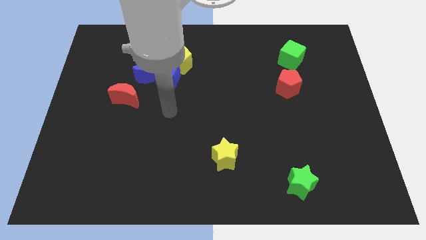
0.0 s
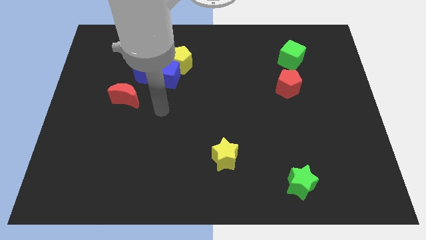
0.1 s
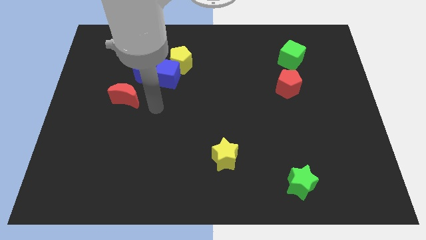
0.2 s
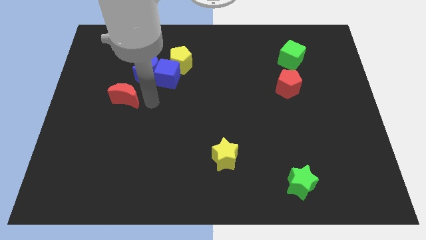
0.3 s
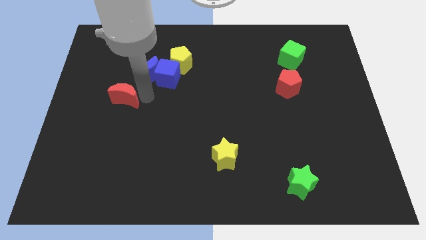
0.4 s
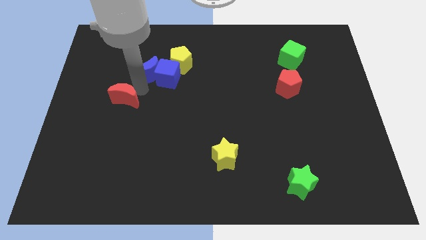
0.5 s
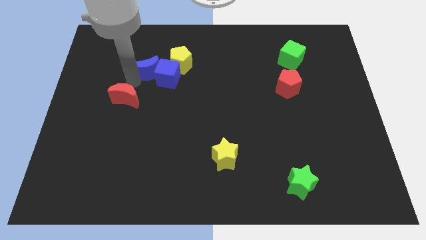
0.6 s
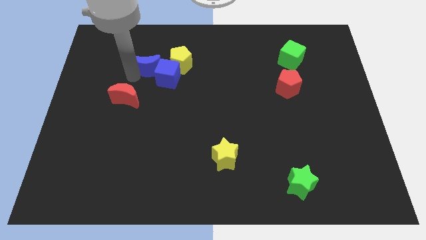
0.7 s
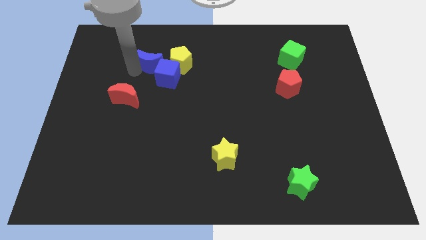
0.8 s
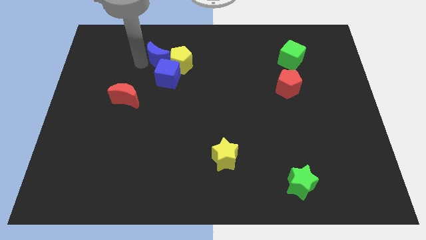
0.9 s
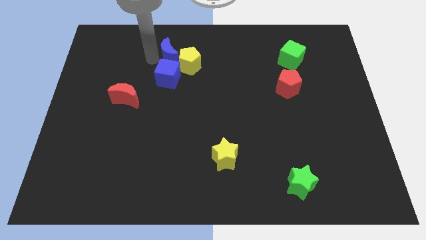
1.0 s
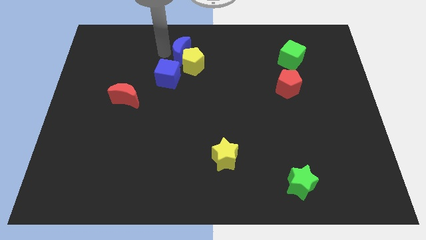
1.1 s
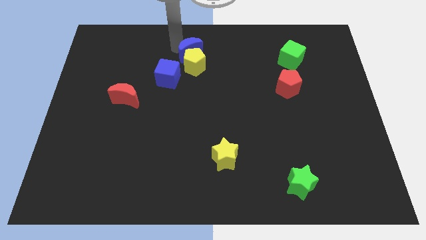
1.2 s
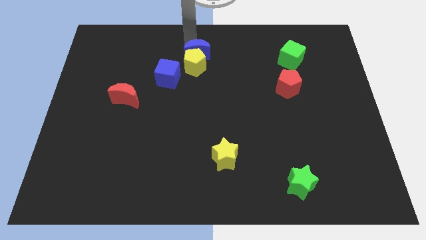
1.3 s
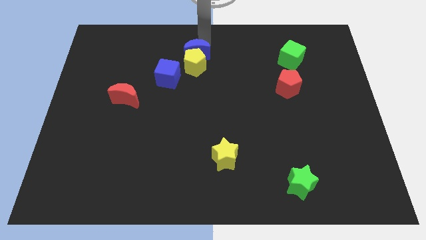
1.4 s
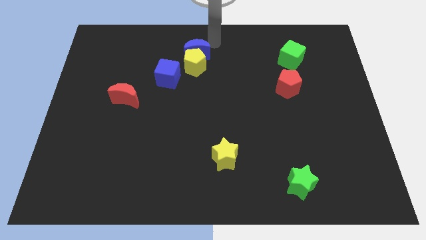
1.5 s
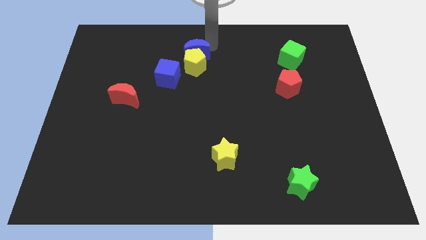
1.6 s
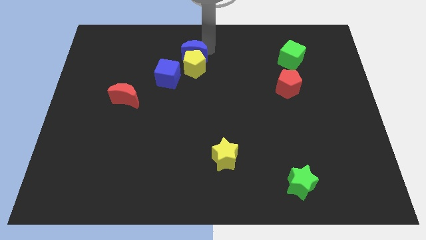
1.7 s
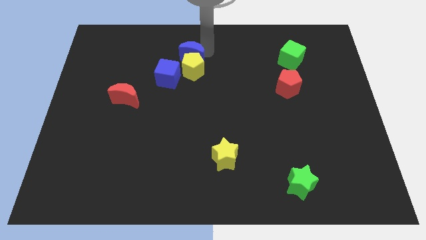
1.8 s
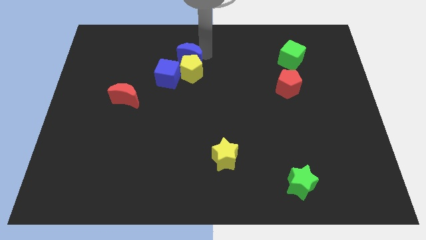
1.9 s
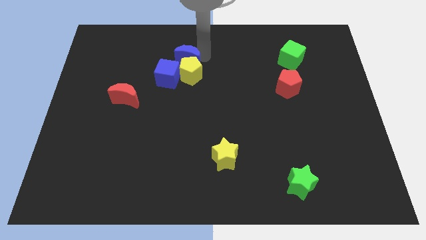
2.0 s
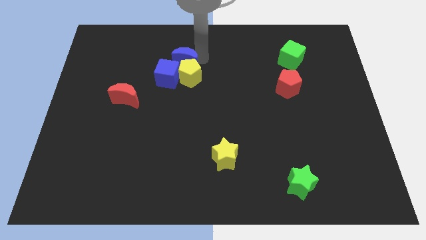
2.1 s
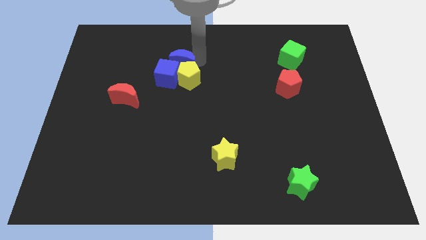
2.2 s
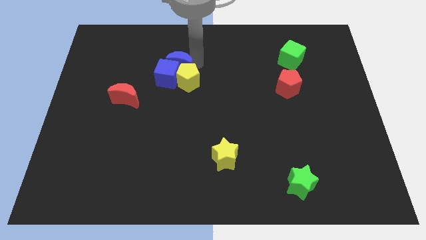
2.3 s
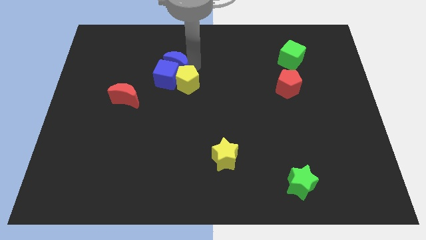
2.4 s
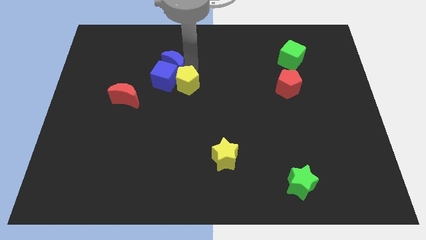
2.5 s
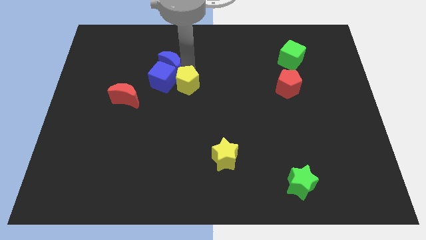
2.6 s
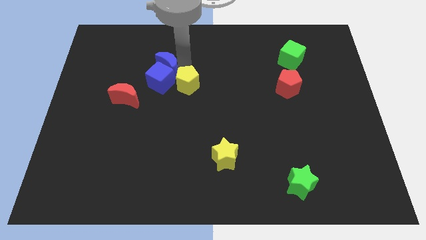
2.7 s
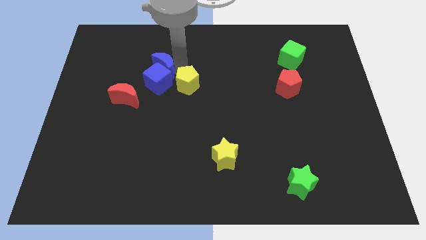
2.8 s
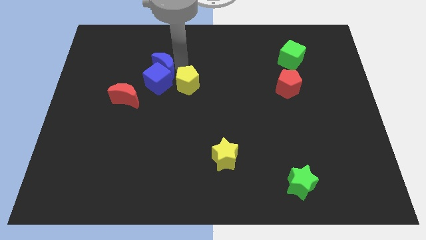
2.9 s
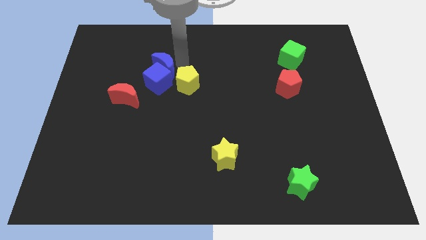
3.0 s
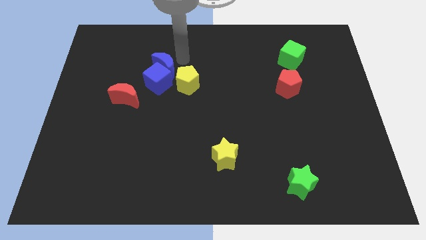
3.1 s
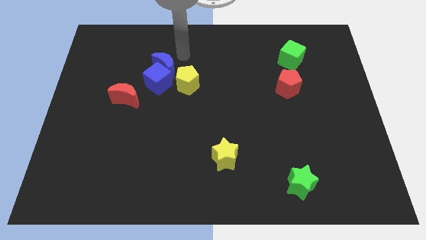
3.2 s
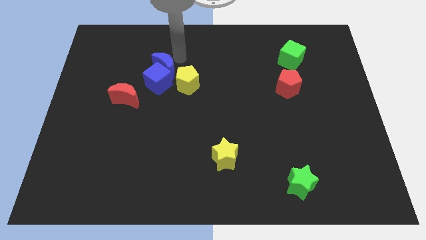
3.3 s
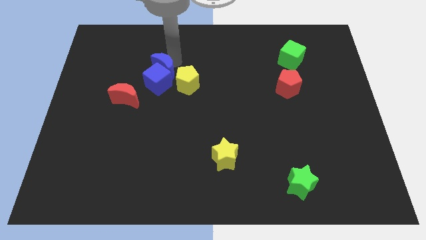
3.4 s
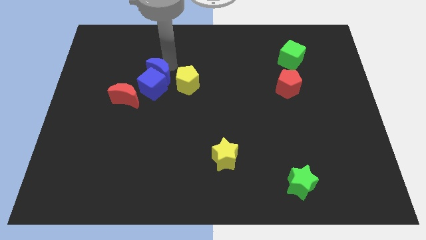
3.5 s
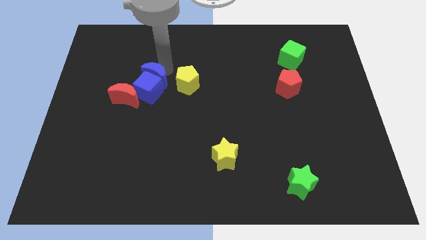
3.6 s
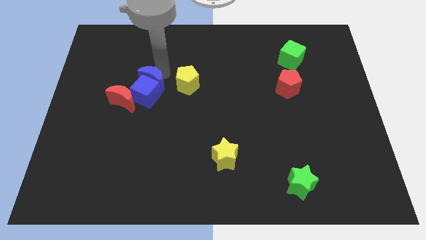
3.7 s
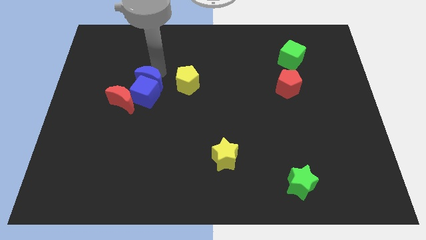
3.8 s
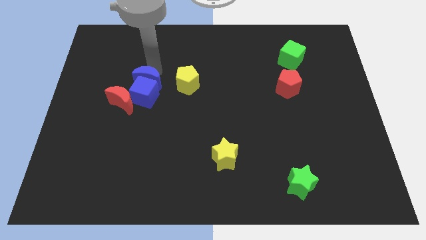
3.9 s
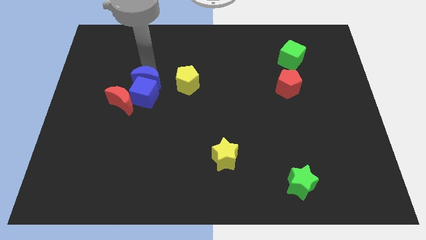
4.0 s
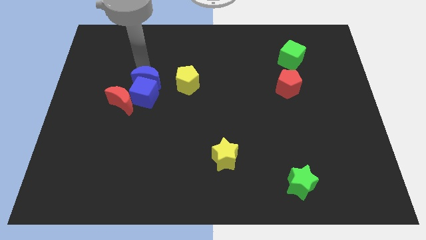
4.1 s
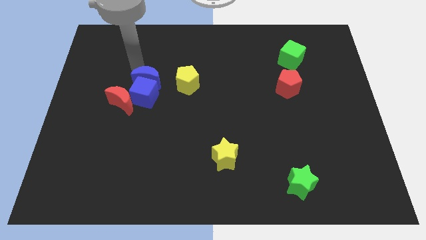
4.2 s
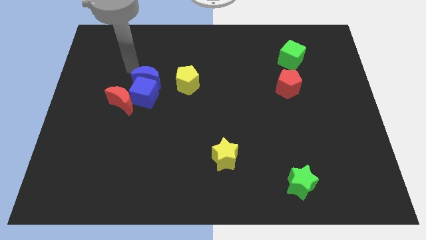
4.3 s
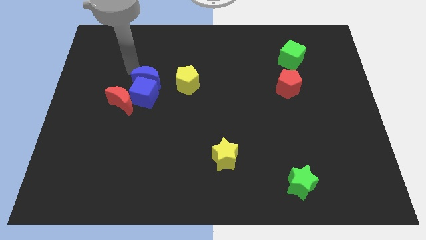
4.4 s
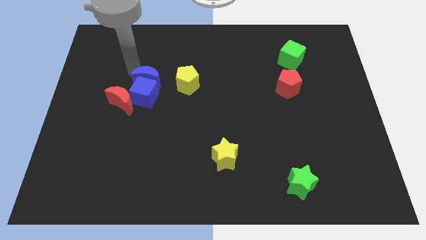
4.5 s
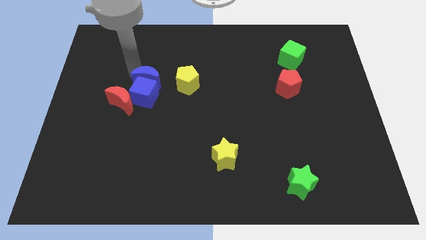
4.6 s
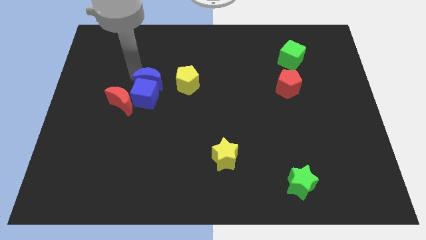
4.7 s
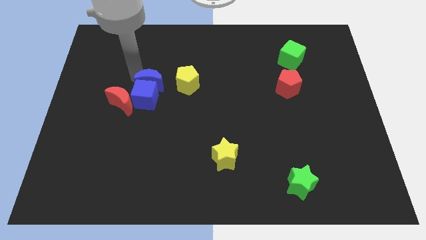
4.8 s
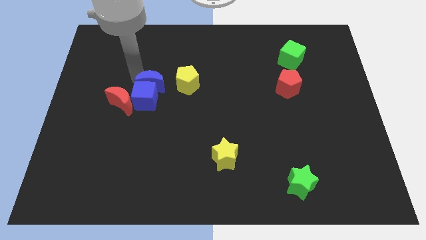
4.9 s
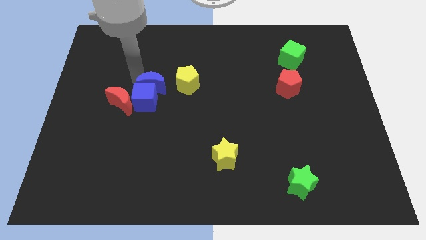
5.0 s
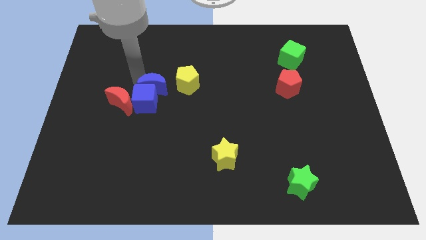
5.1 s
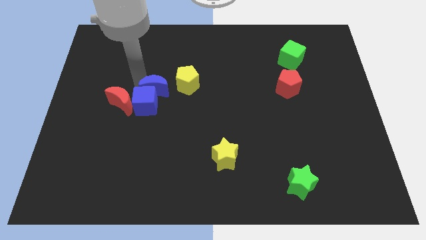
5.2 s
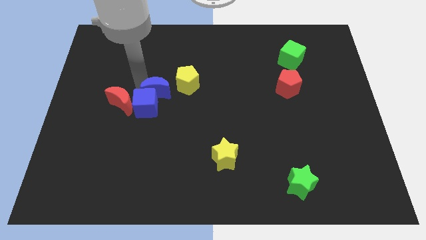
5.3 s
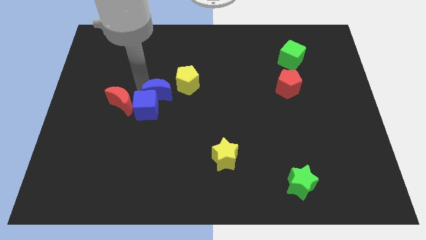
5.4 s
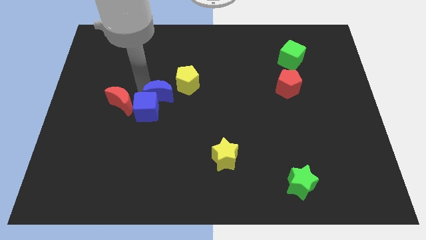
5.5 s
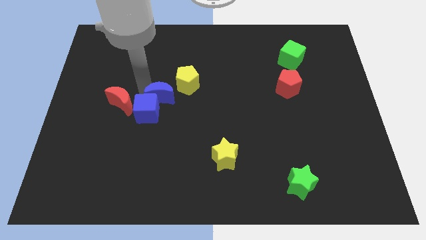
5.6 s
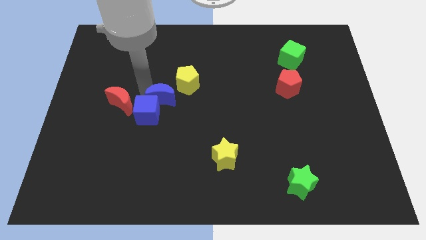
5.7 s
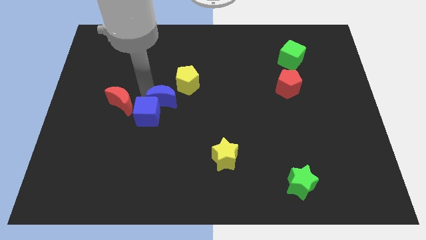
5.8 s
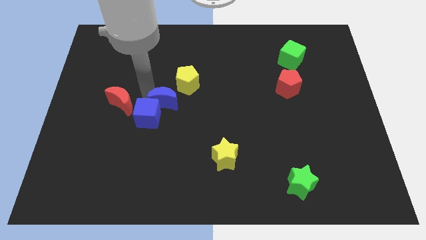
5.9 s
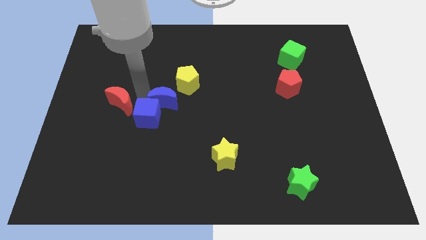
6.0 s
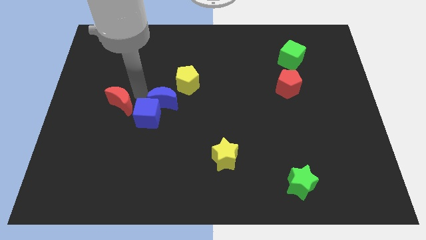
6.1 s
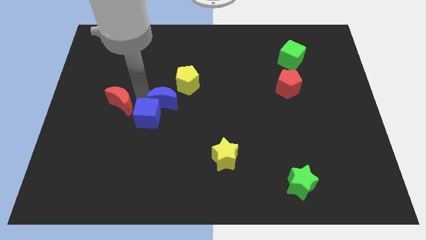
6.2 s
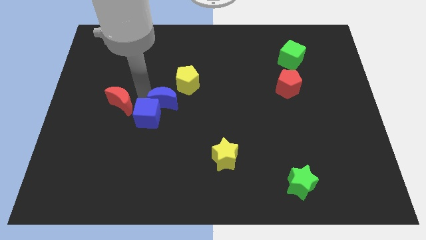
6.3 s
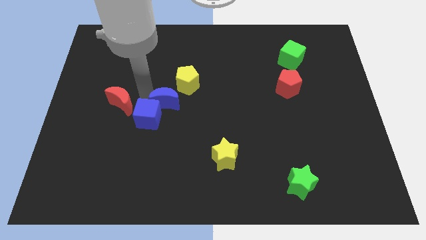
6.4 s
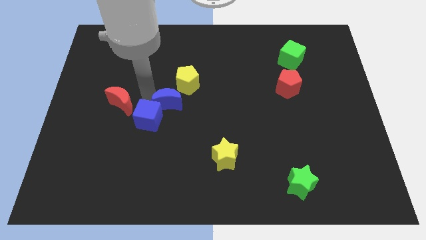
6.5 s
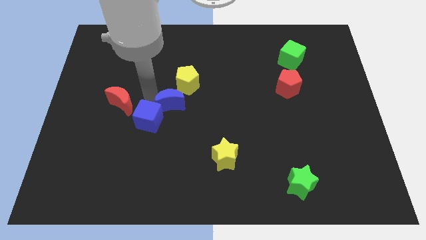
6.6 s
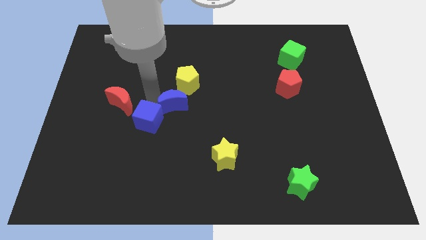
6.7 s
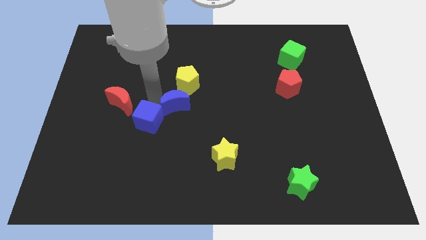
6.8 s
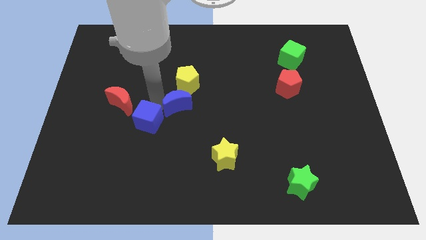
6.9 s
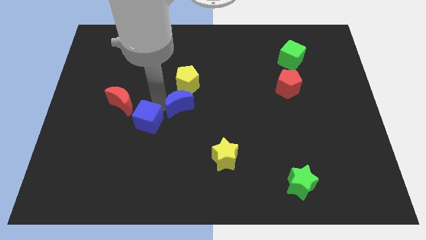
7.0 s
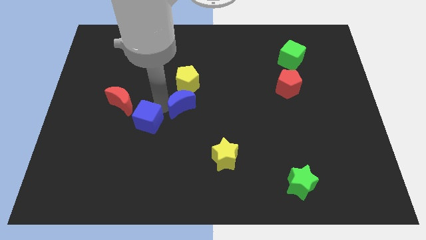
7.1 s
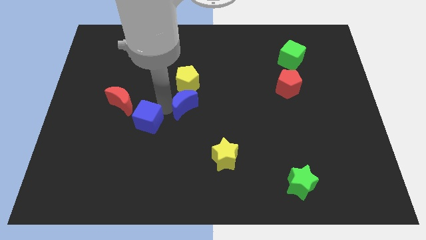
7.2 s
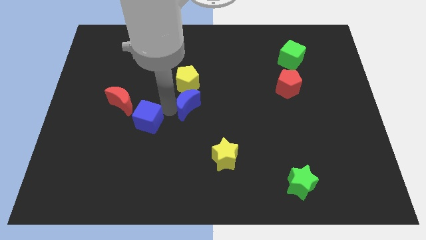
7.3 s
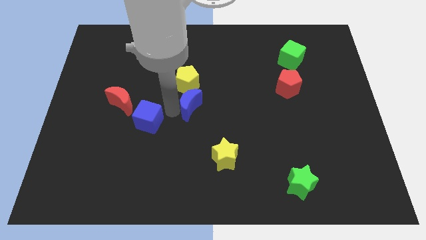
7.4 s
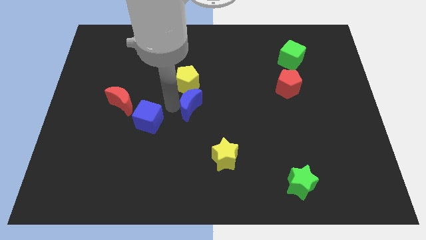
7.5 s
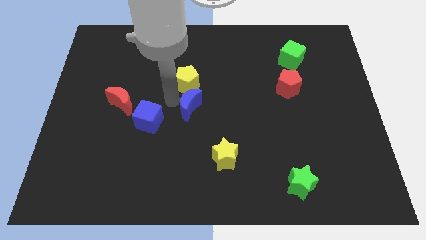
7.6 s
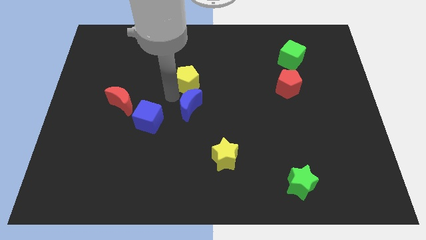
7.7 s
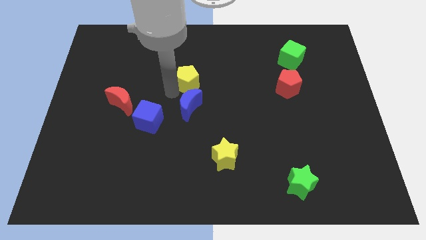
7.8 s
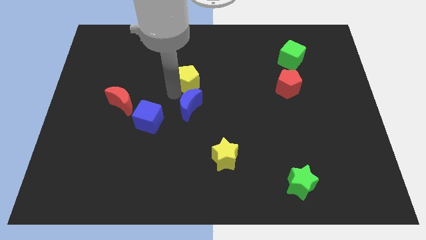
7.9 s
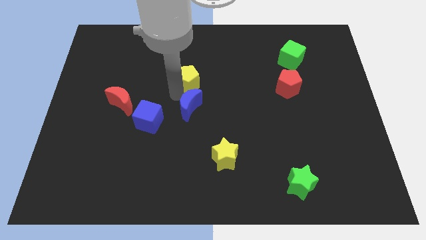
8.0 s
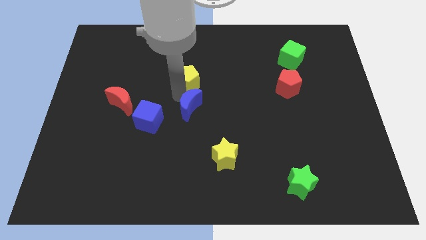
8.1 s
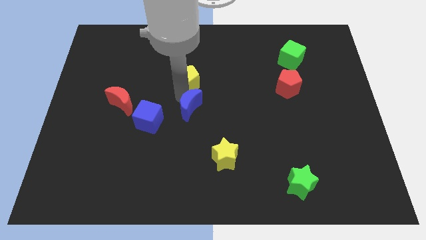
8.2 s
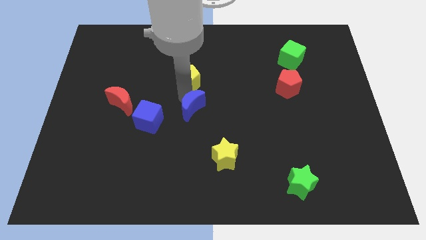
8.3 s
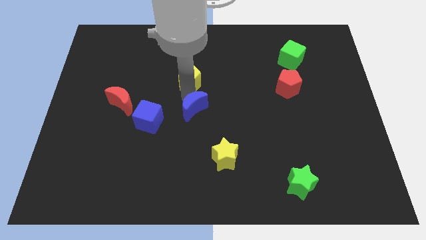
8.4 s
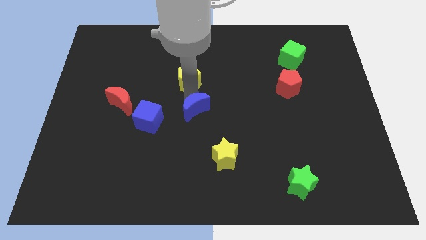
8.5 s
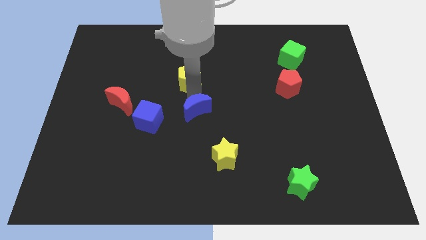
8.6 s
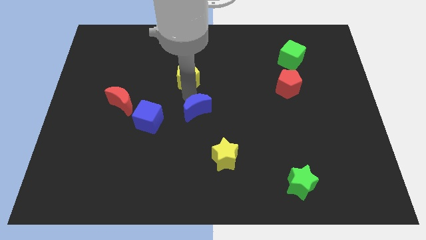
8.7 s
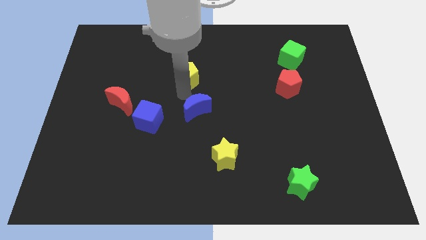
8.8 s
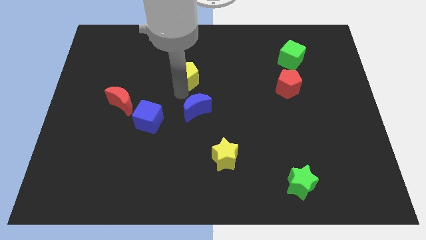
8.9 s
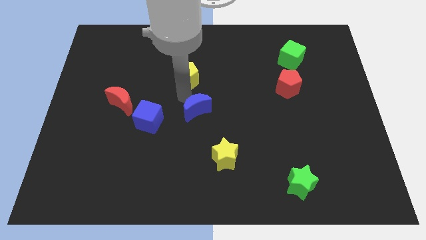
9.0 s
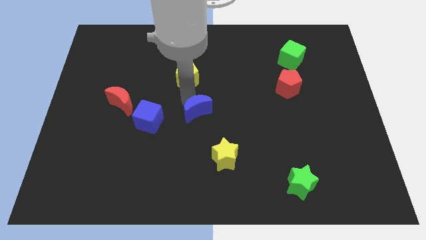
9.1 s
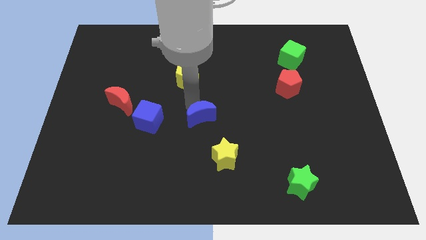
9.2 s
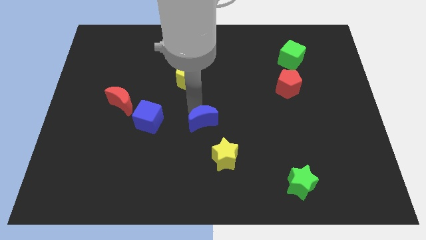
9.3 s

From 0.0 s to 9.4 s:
move the blue moon downwards and then right
